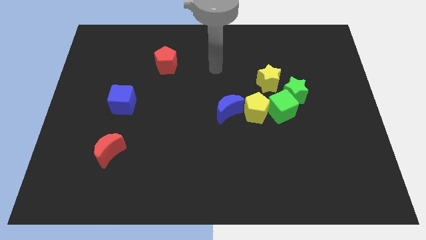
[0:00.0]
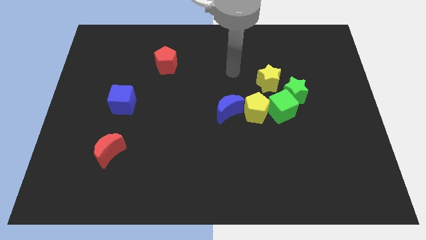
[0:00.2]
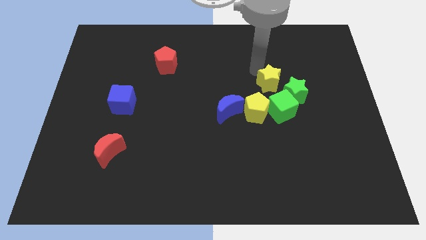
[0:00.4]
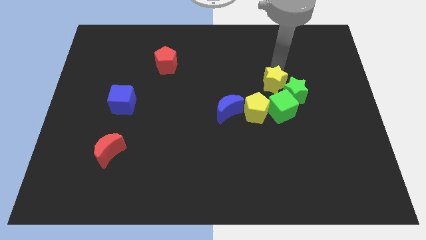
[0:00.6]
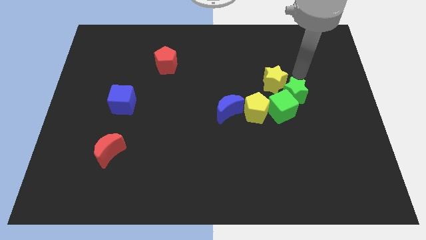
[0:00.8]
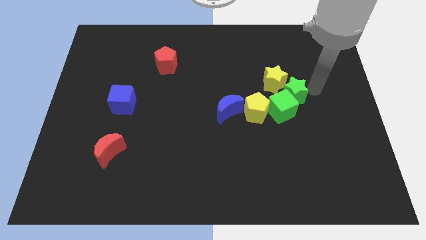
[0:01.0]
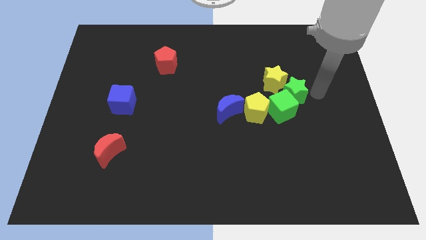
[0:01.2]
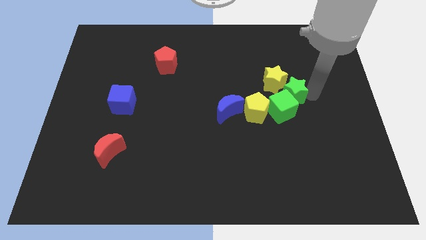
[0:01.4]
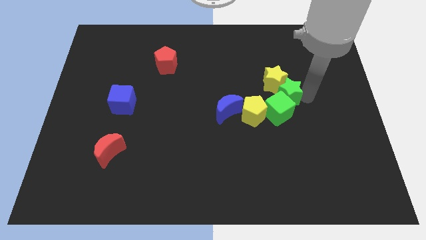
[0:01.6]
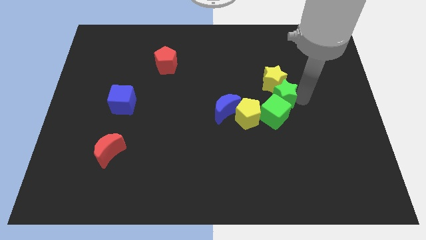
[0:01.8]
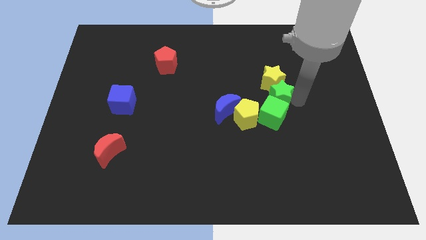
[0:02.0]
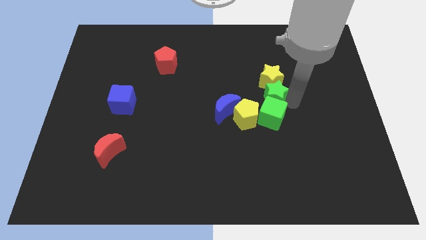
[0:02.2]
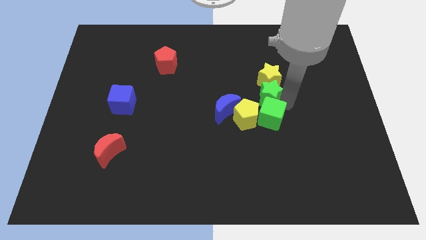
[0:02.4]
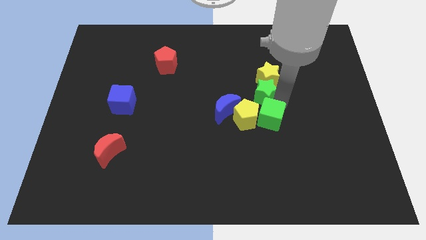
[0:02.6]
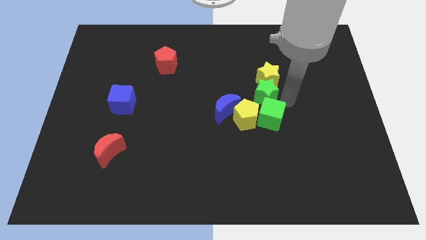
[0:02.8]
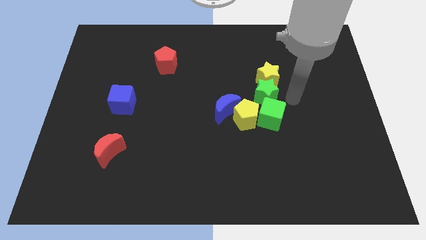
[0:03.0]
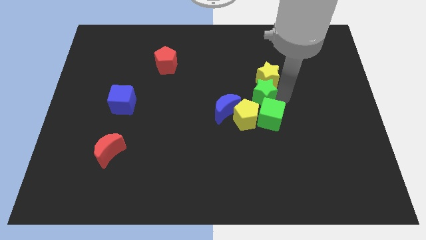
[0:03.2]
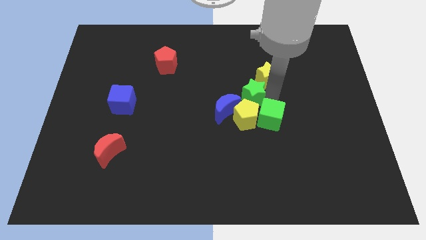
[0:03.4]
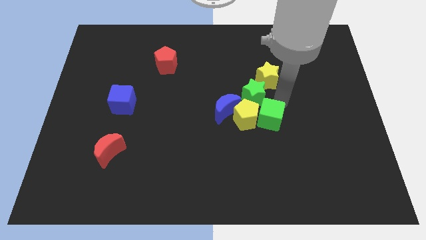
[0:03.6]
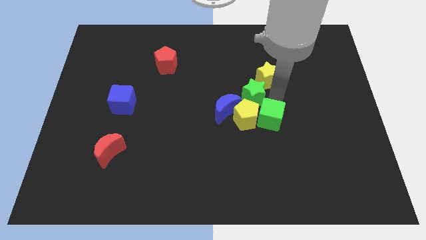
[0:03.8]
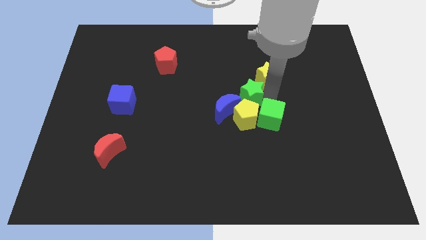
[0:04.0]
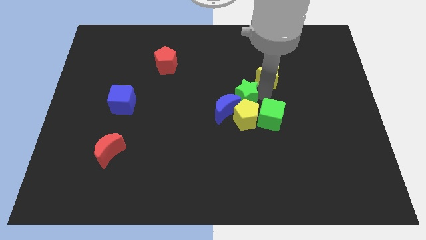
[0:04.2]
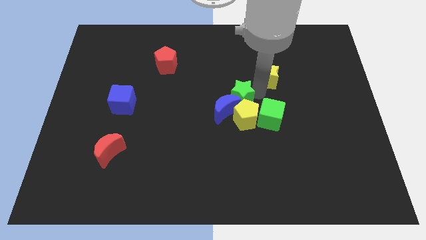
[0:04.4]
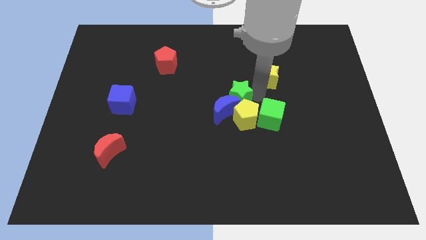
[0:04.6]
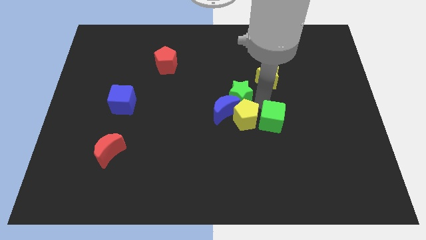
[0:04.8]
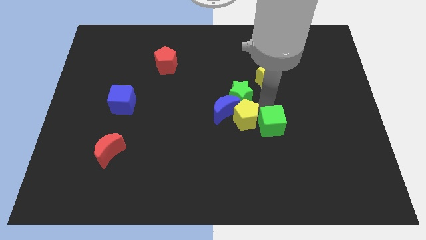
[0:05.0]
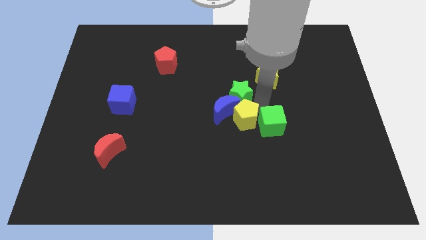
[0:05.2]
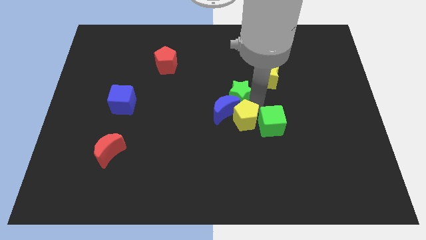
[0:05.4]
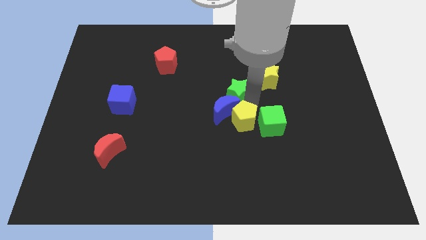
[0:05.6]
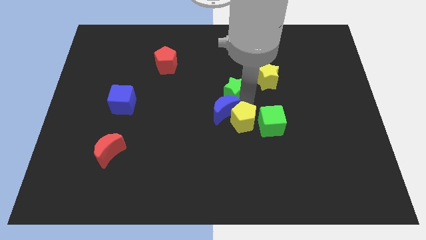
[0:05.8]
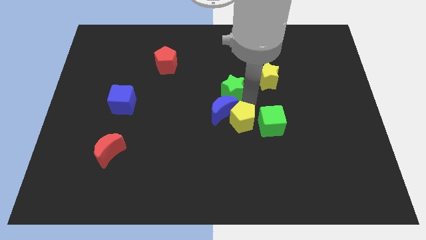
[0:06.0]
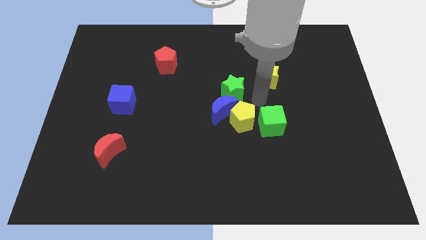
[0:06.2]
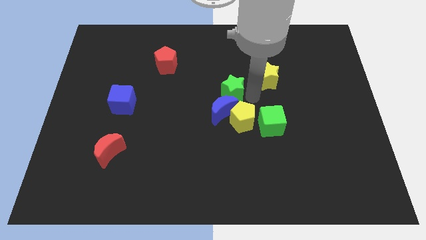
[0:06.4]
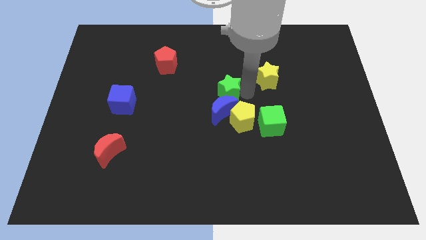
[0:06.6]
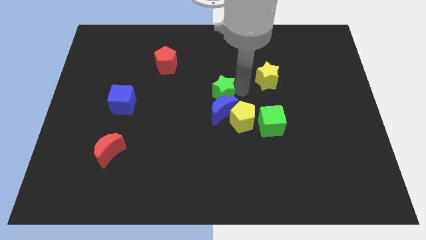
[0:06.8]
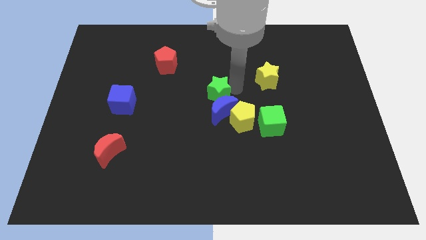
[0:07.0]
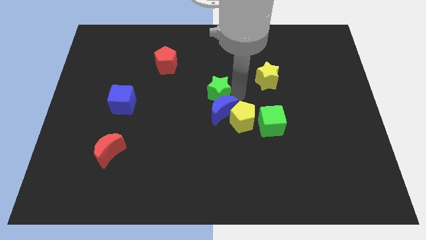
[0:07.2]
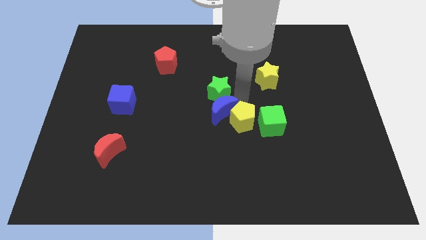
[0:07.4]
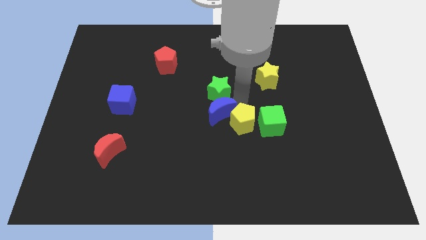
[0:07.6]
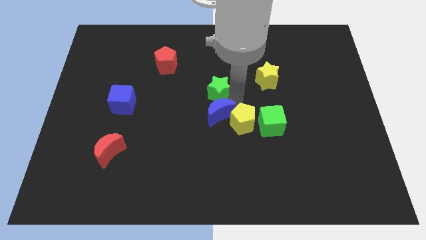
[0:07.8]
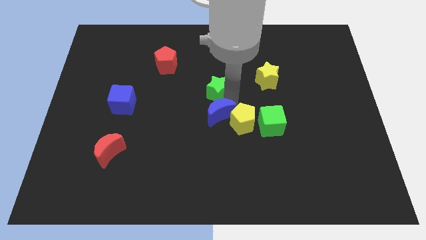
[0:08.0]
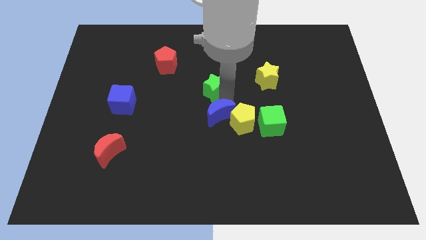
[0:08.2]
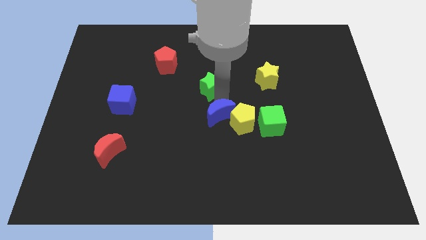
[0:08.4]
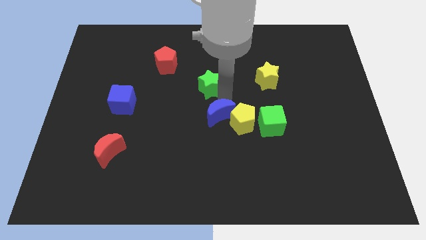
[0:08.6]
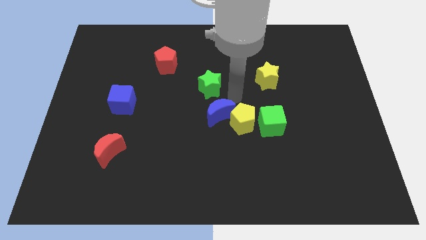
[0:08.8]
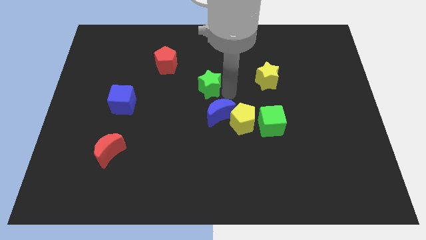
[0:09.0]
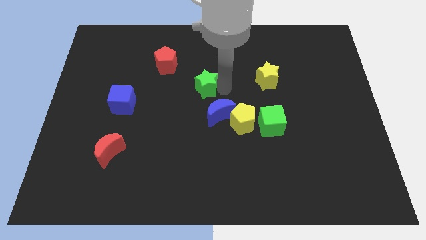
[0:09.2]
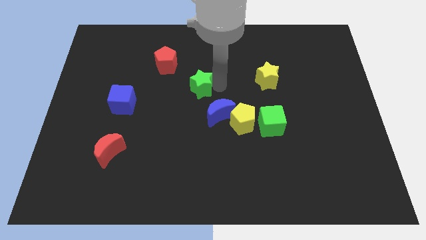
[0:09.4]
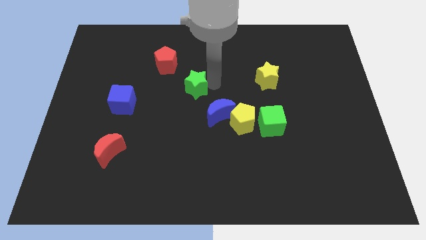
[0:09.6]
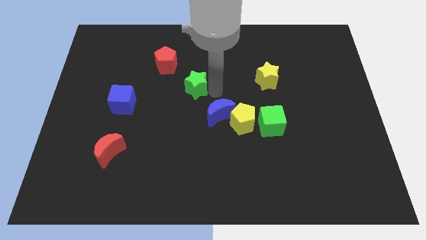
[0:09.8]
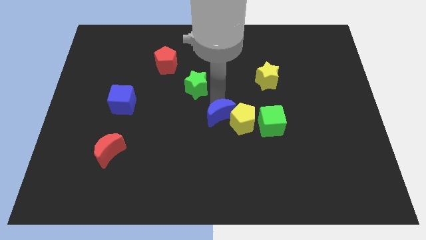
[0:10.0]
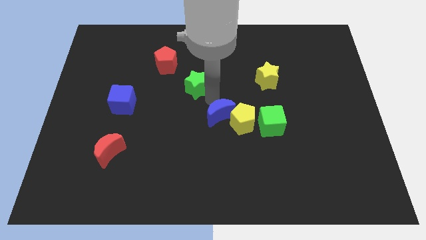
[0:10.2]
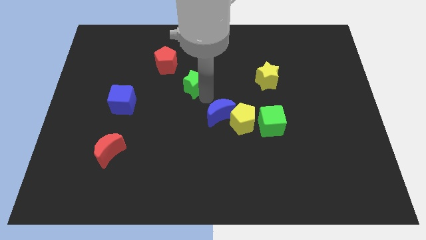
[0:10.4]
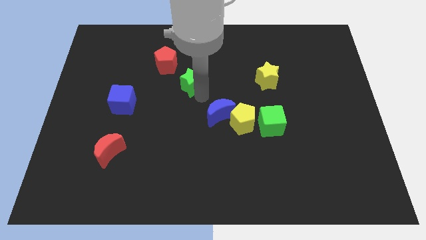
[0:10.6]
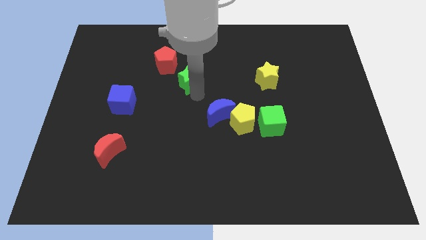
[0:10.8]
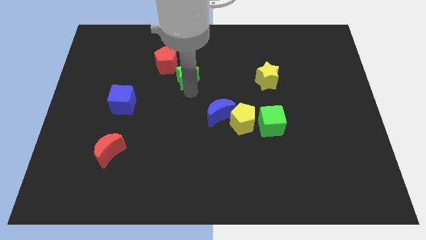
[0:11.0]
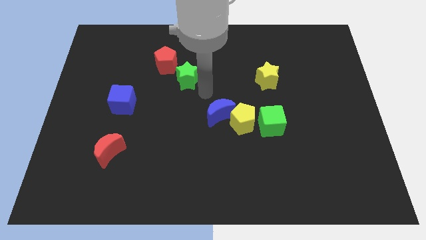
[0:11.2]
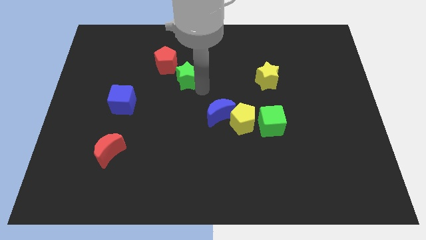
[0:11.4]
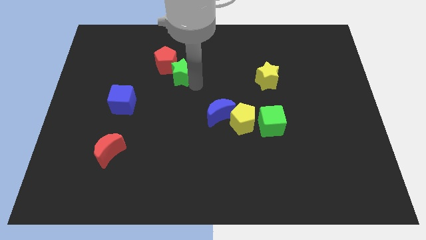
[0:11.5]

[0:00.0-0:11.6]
put the green star close to the red pentagon
